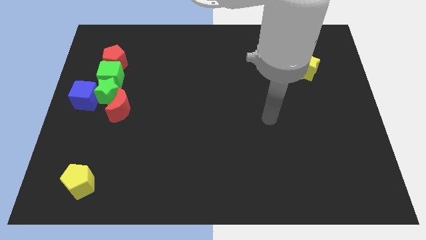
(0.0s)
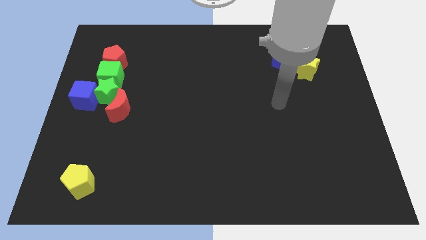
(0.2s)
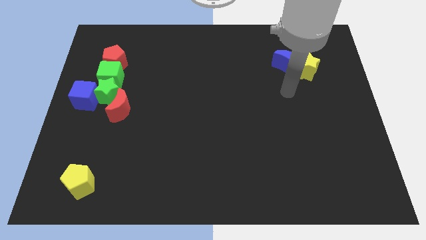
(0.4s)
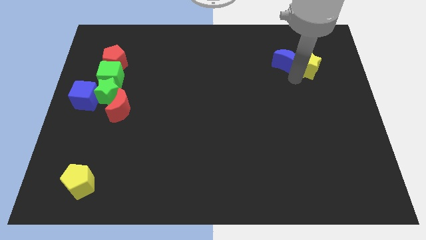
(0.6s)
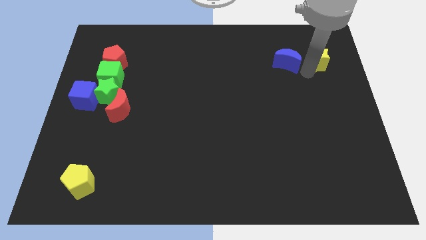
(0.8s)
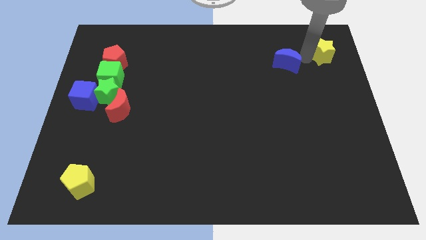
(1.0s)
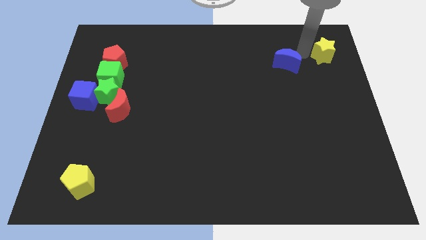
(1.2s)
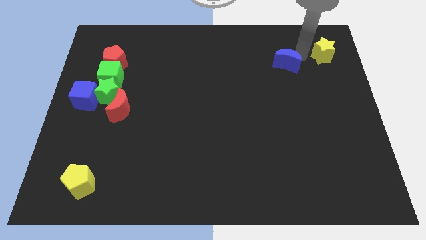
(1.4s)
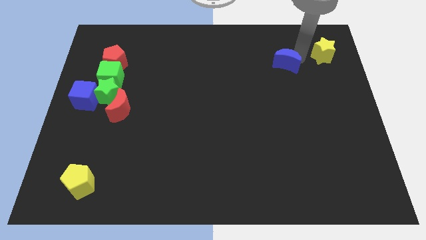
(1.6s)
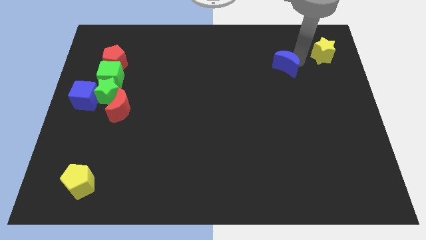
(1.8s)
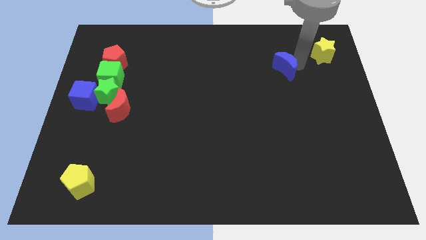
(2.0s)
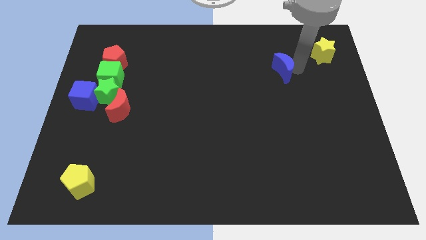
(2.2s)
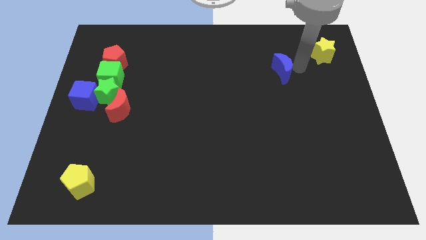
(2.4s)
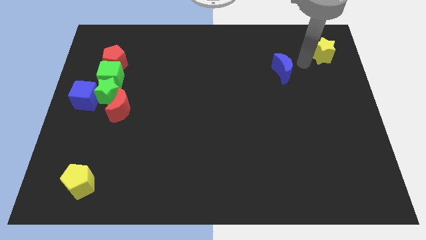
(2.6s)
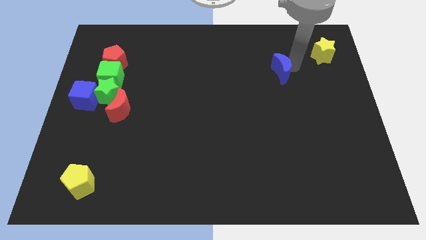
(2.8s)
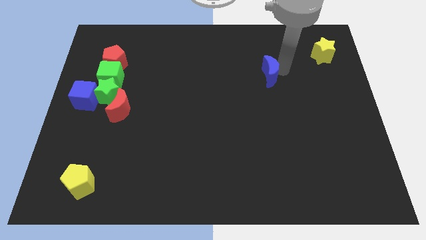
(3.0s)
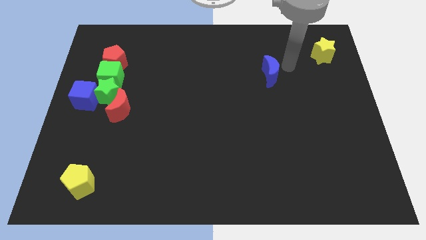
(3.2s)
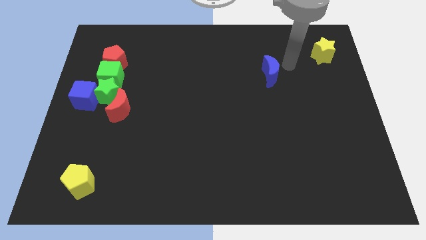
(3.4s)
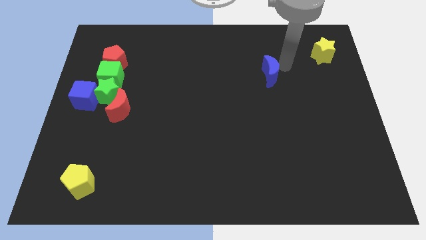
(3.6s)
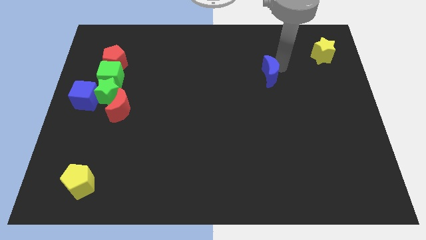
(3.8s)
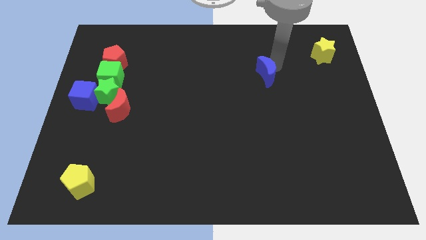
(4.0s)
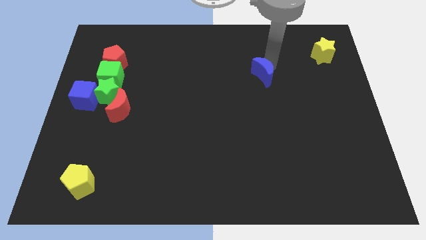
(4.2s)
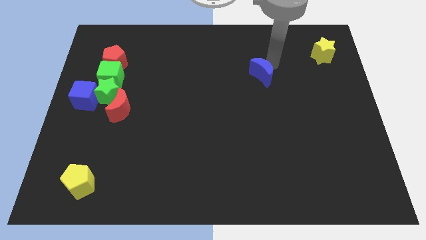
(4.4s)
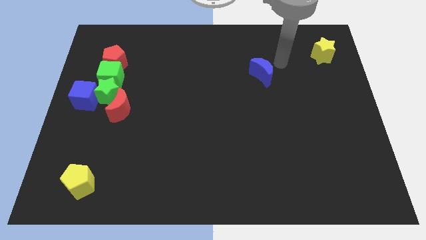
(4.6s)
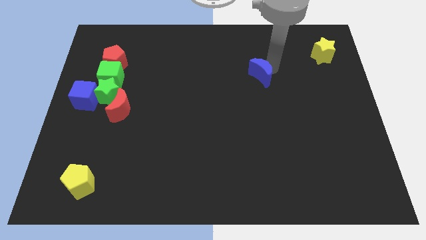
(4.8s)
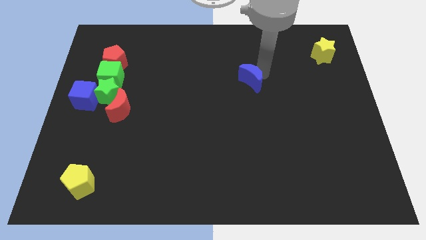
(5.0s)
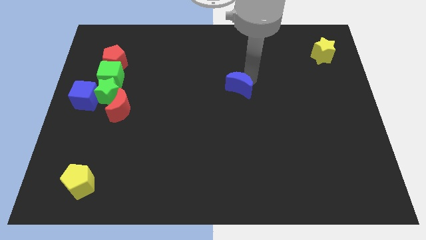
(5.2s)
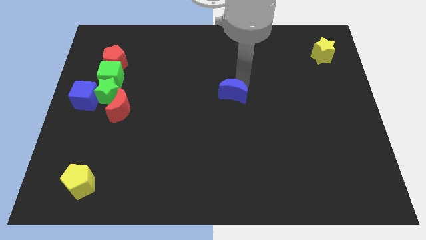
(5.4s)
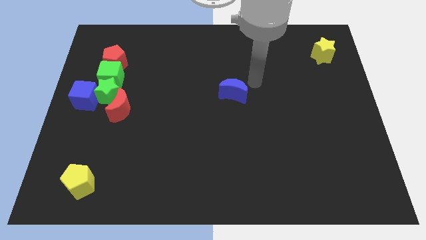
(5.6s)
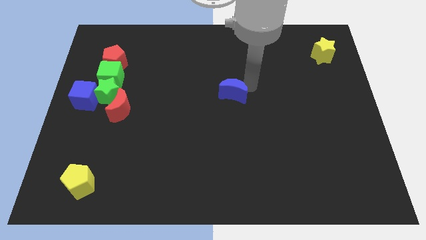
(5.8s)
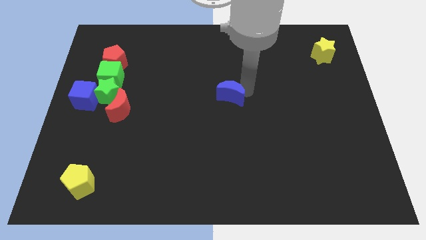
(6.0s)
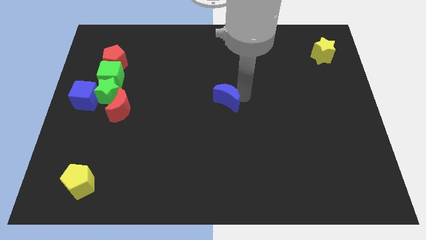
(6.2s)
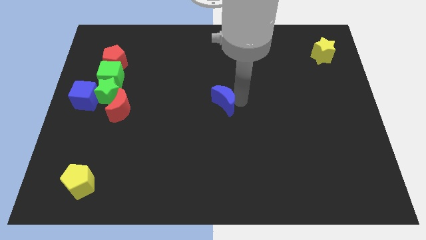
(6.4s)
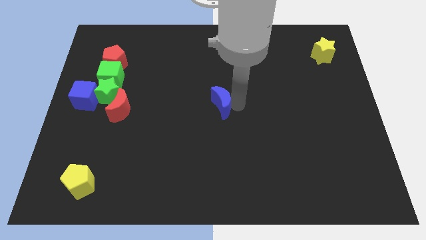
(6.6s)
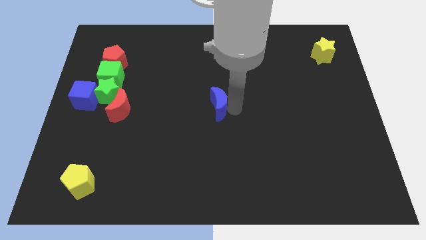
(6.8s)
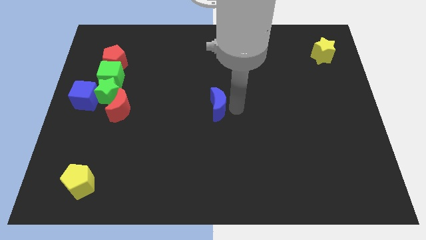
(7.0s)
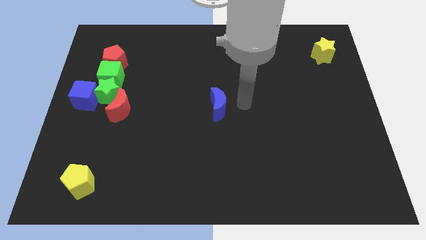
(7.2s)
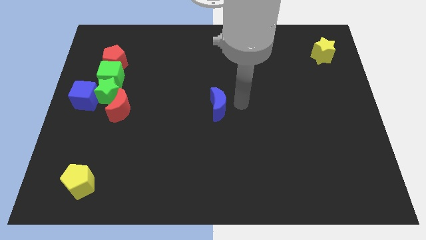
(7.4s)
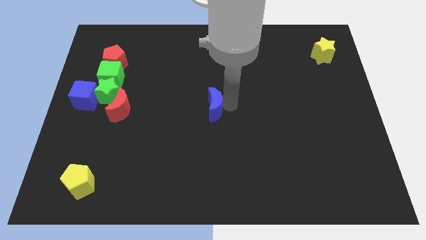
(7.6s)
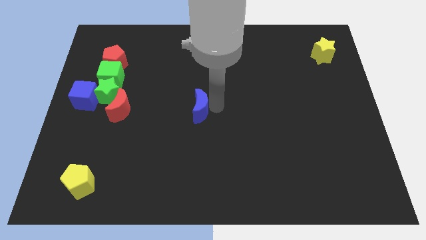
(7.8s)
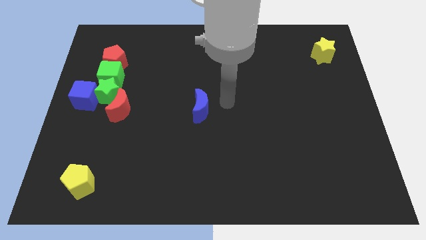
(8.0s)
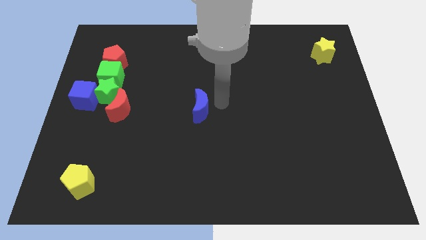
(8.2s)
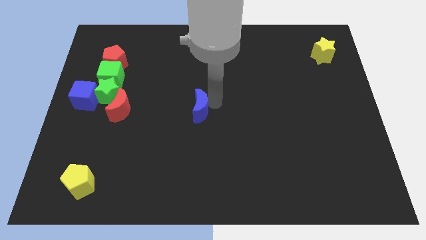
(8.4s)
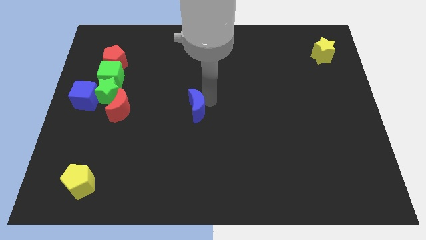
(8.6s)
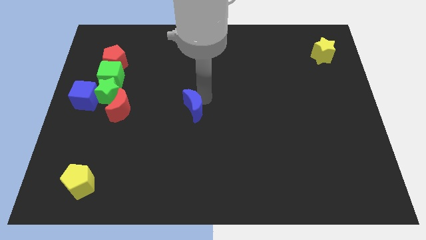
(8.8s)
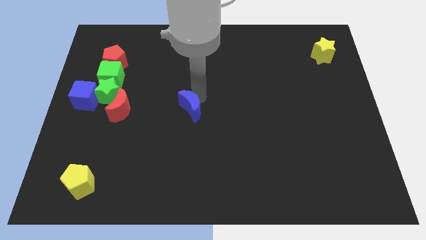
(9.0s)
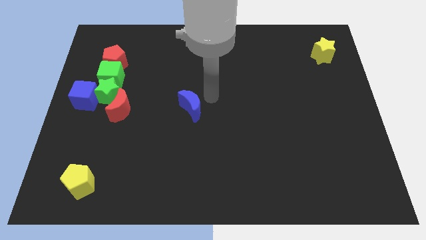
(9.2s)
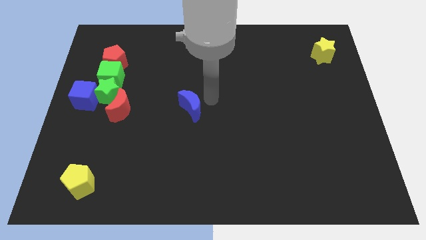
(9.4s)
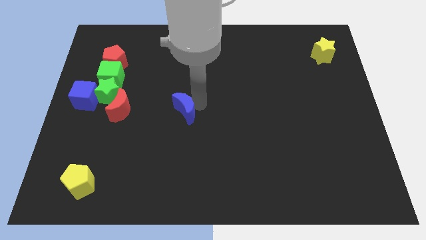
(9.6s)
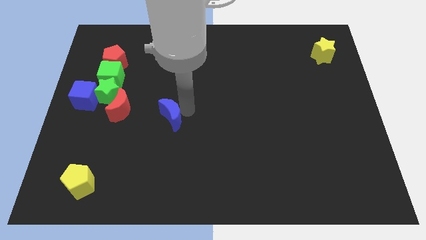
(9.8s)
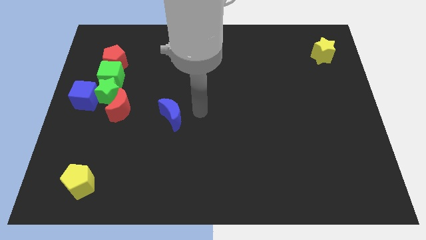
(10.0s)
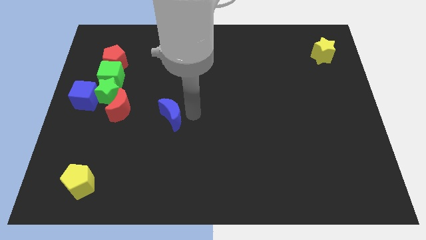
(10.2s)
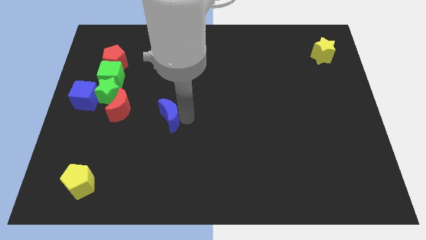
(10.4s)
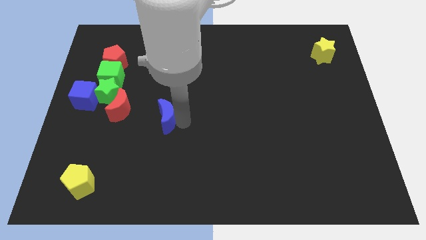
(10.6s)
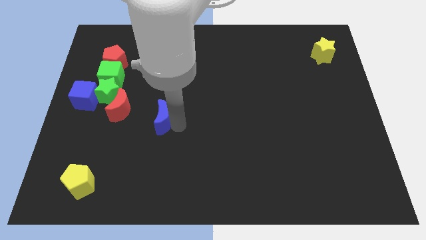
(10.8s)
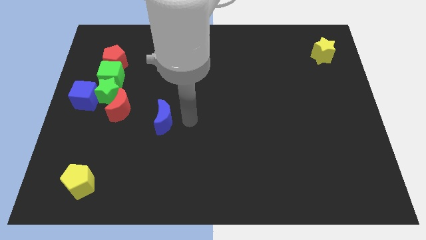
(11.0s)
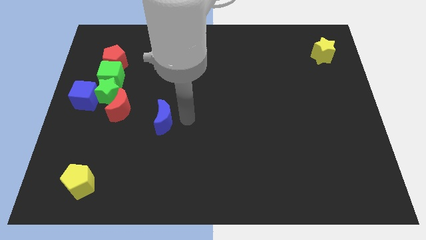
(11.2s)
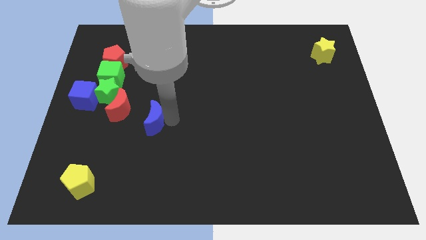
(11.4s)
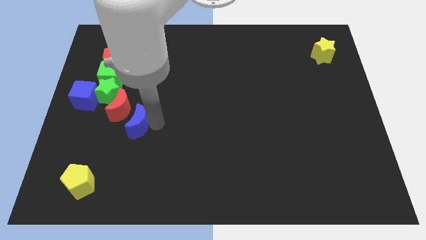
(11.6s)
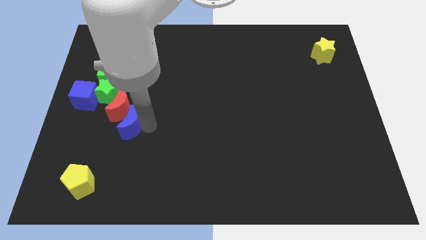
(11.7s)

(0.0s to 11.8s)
put the blue moon towards the red moon

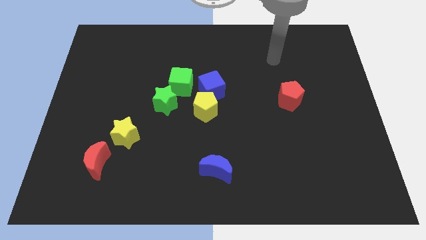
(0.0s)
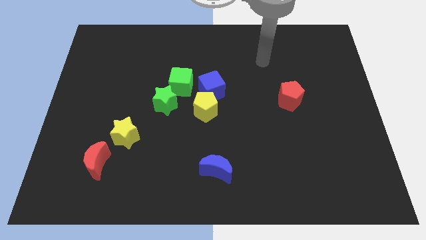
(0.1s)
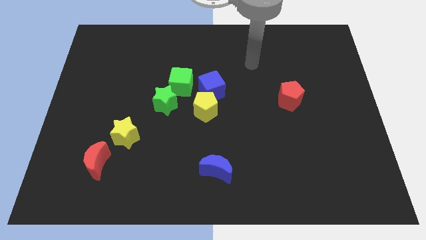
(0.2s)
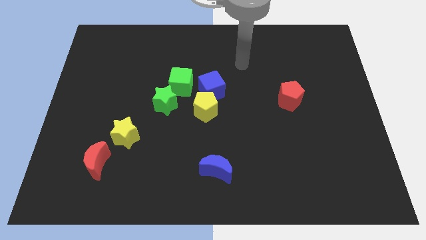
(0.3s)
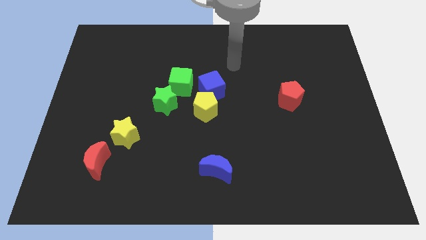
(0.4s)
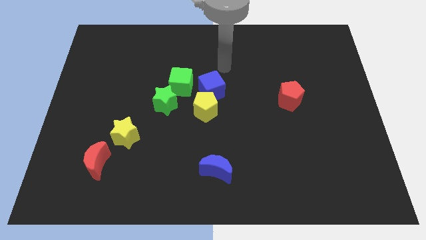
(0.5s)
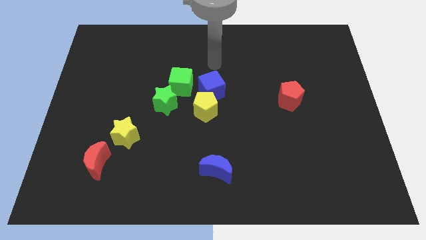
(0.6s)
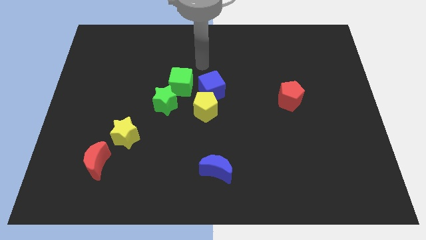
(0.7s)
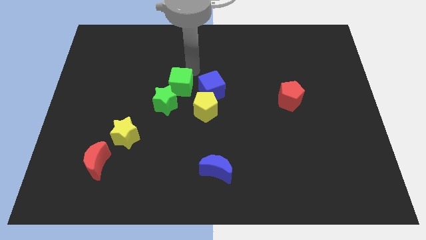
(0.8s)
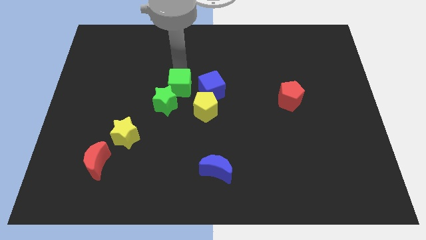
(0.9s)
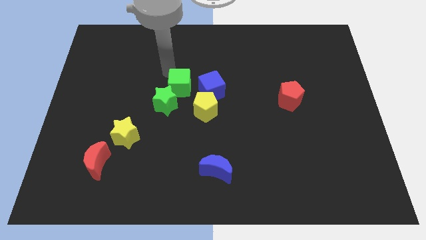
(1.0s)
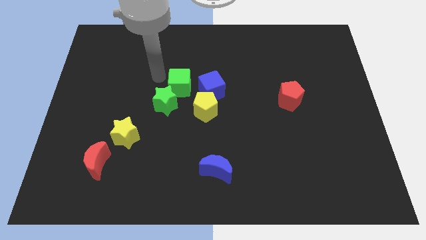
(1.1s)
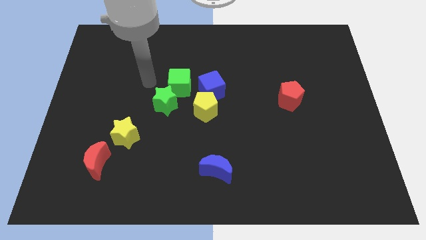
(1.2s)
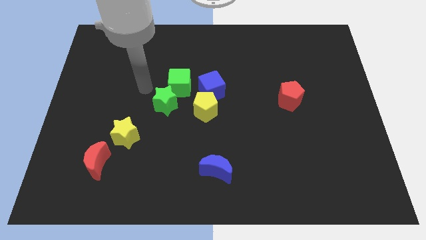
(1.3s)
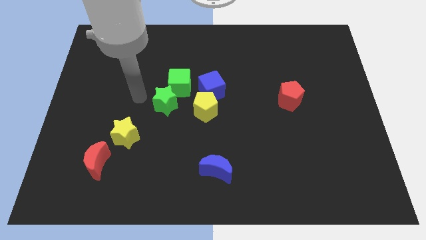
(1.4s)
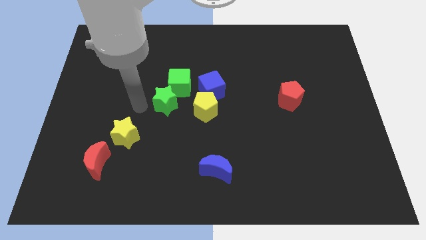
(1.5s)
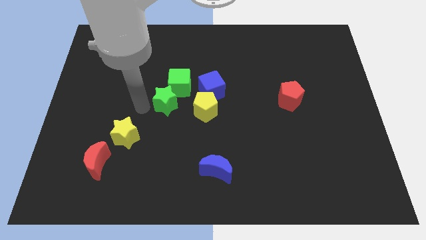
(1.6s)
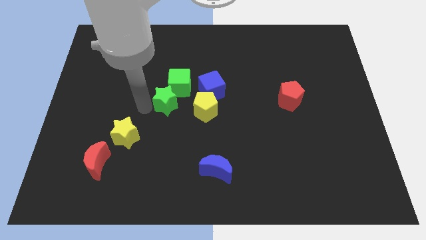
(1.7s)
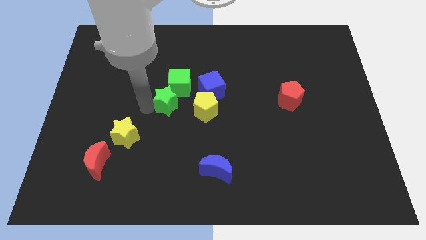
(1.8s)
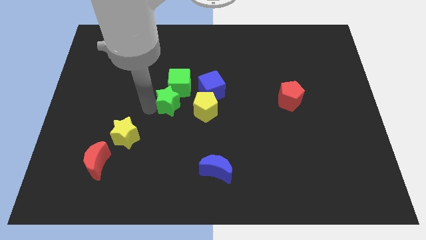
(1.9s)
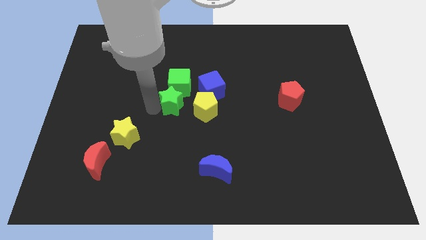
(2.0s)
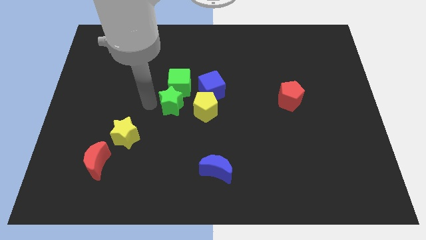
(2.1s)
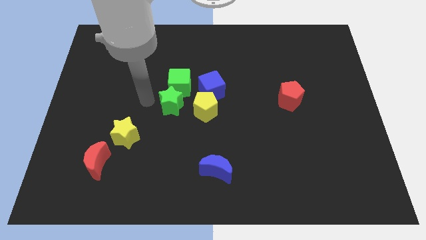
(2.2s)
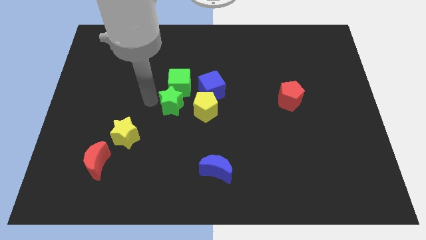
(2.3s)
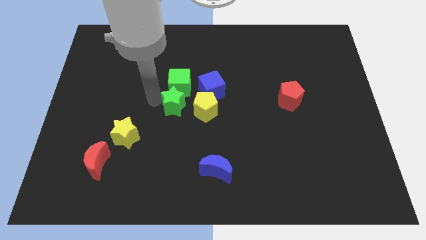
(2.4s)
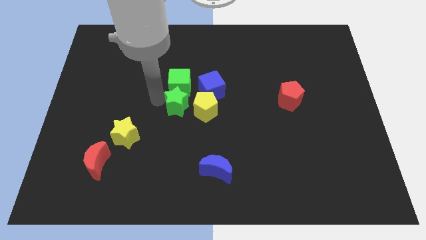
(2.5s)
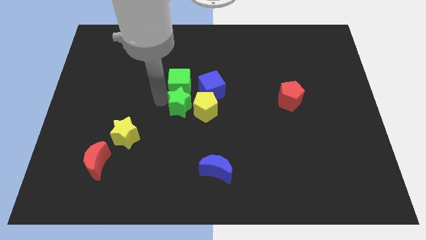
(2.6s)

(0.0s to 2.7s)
move the green star to the yellow pentagon
